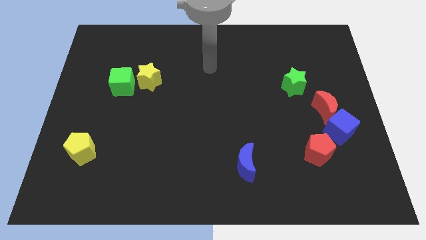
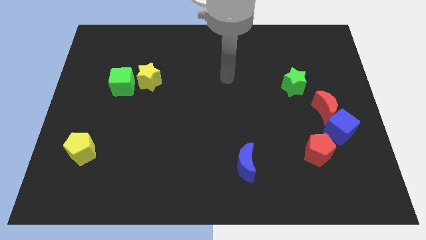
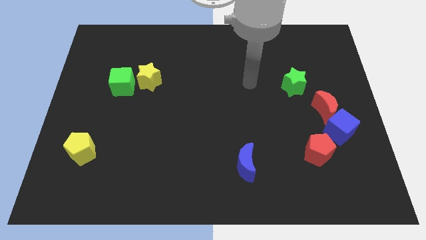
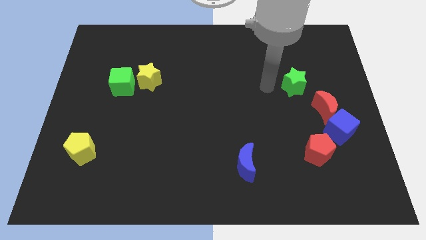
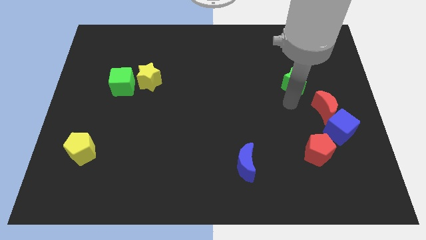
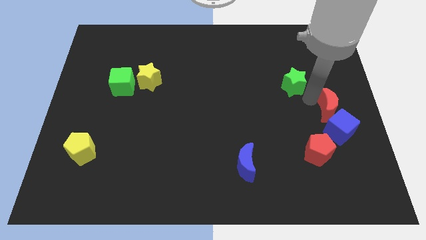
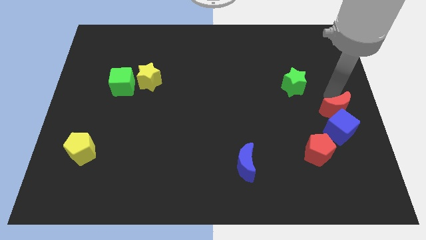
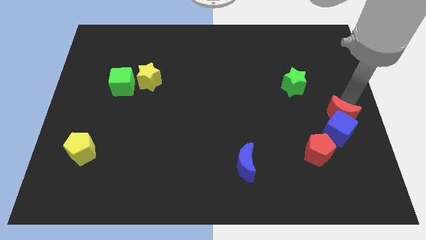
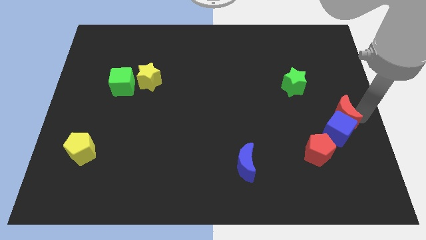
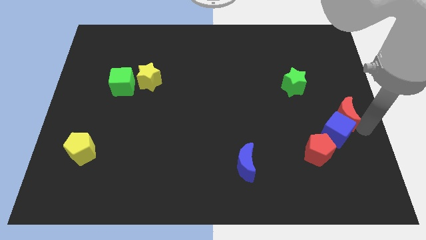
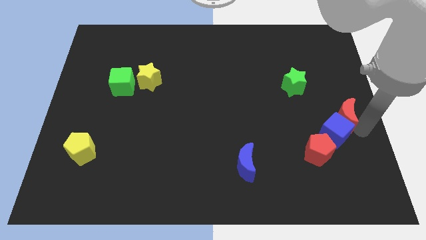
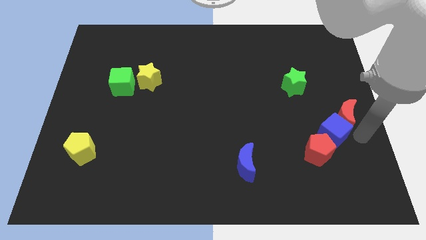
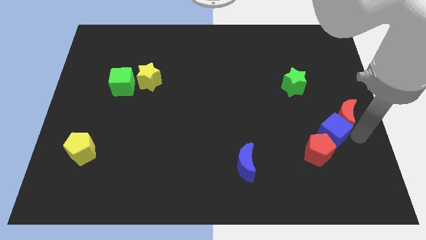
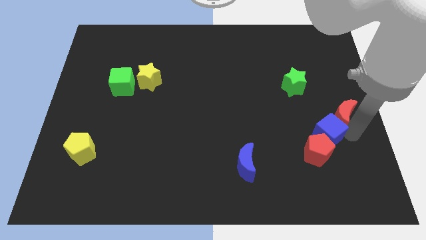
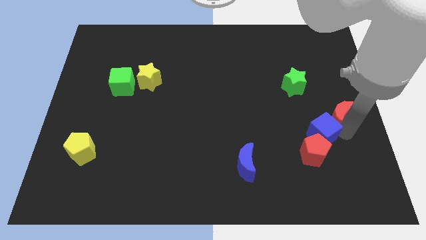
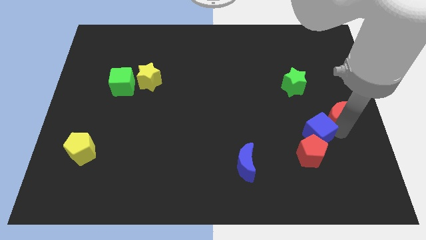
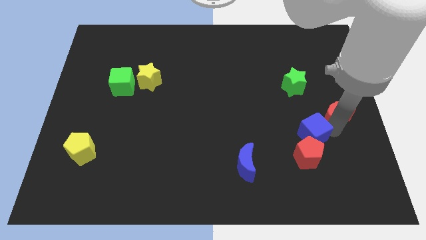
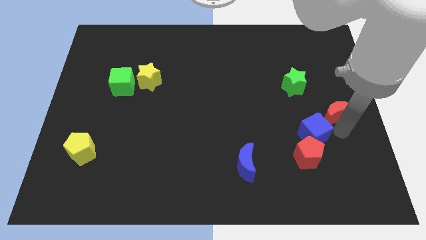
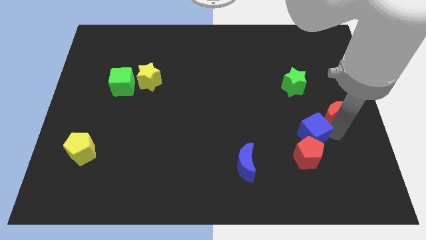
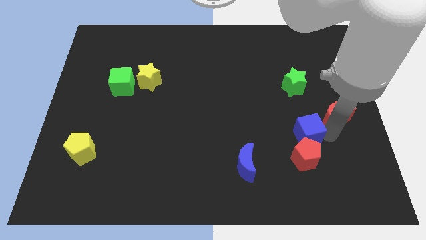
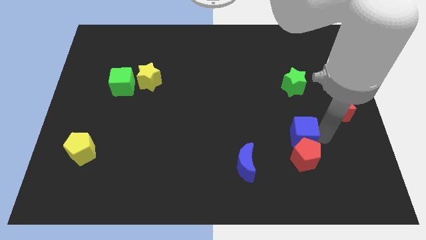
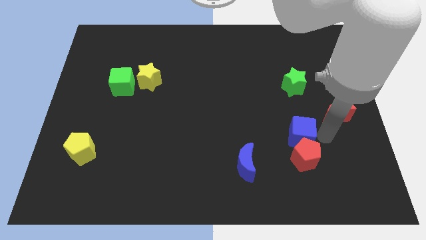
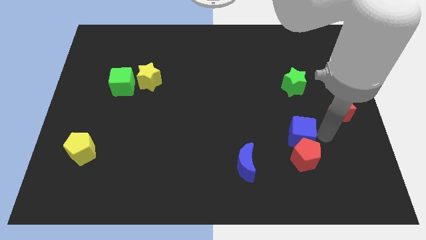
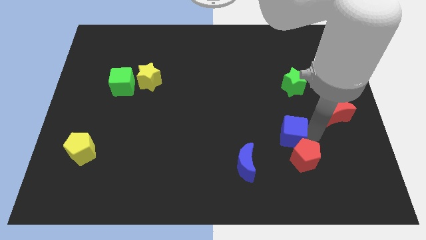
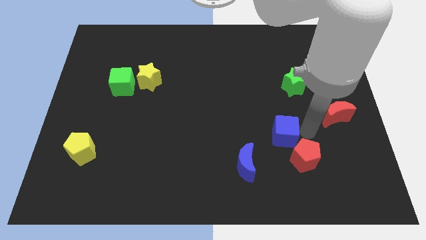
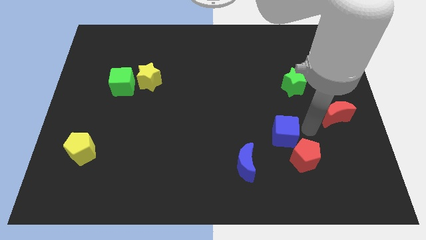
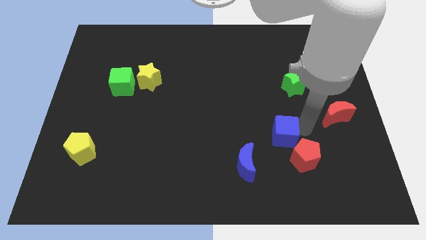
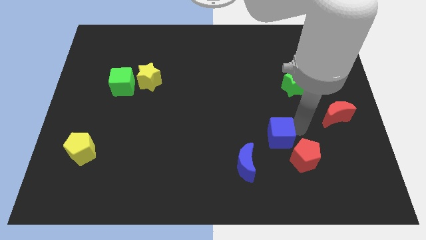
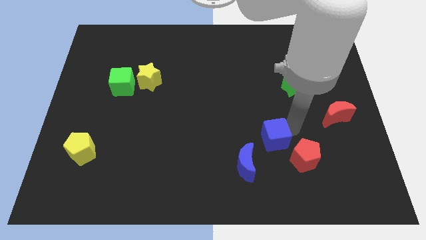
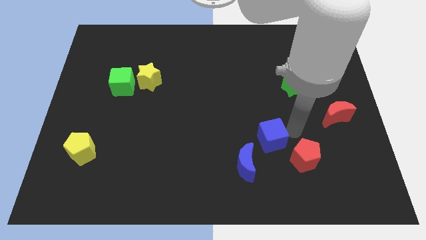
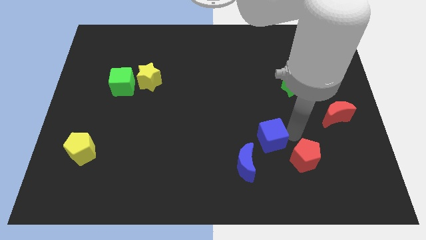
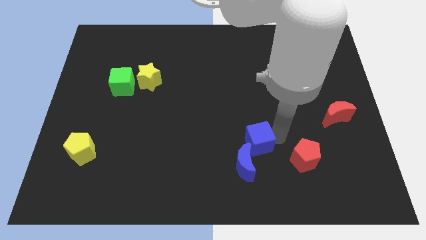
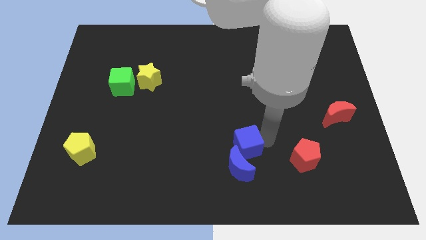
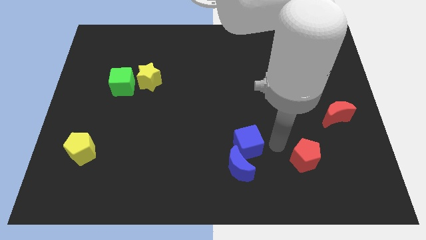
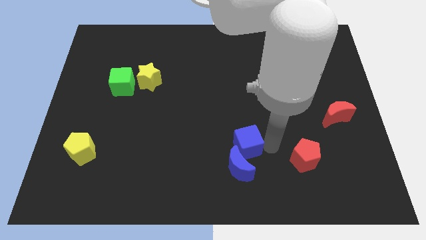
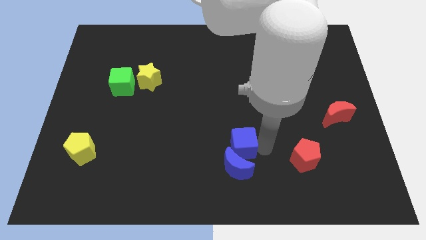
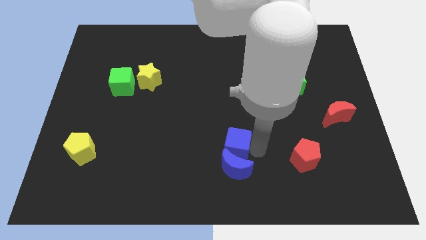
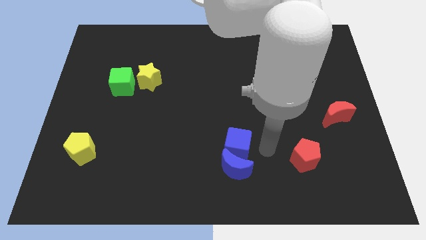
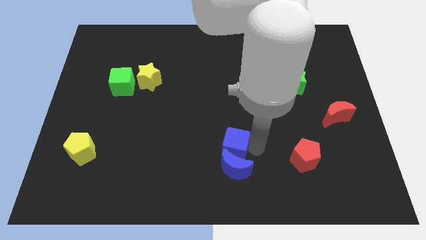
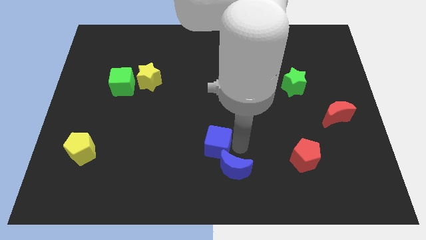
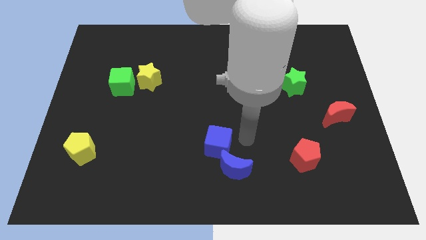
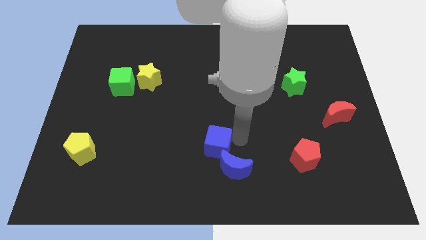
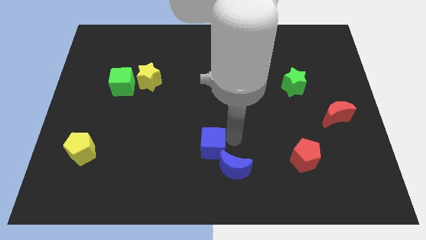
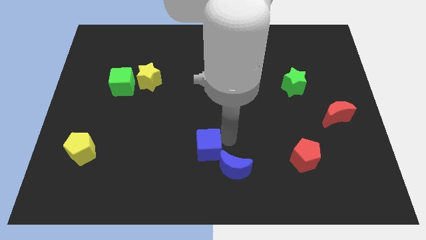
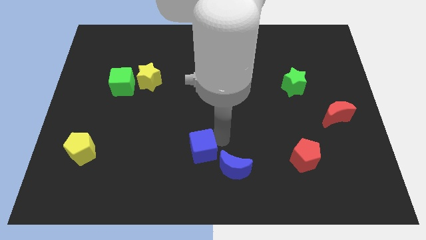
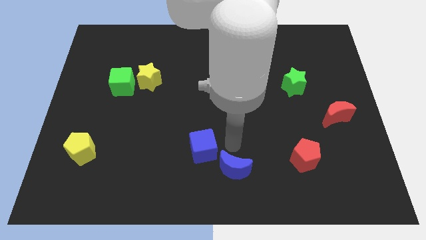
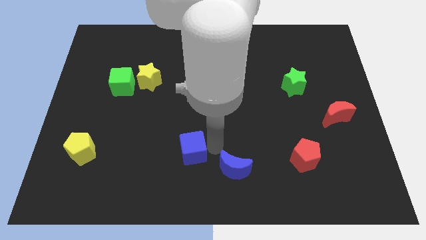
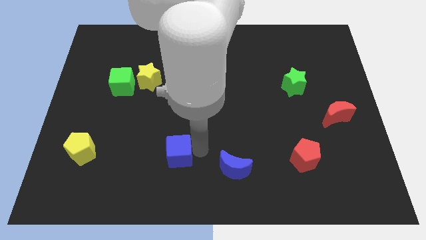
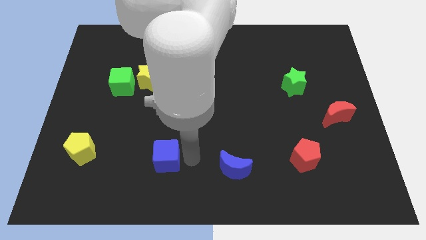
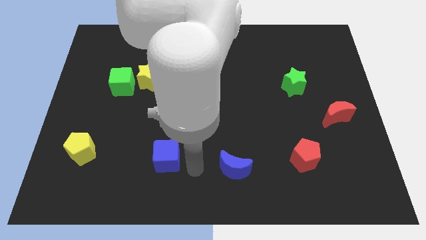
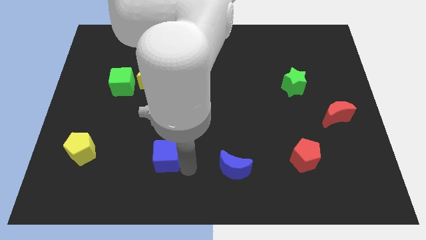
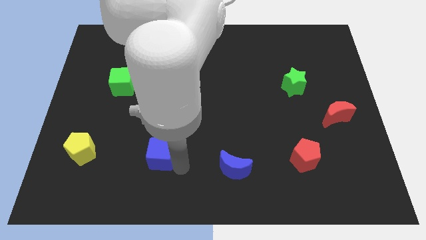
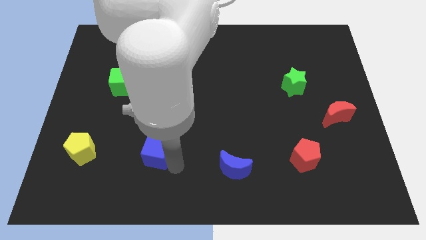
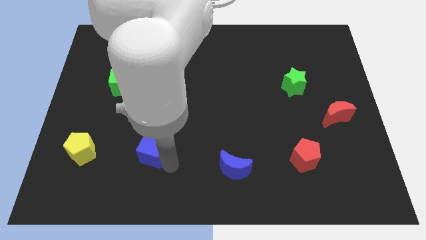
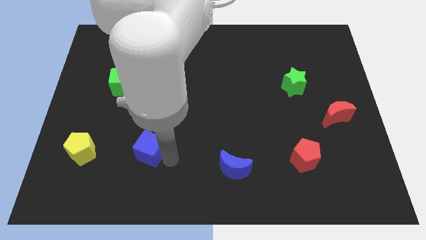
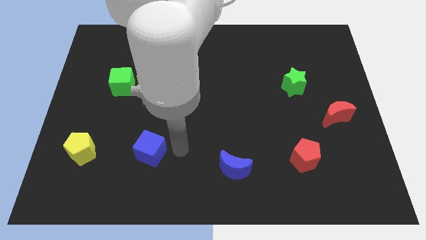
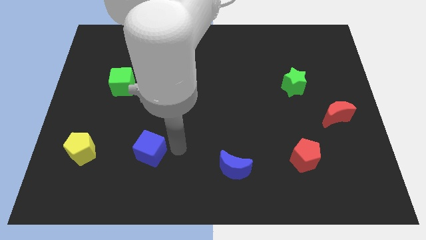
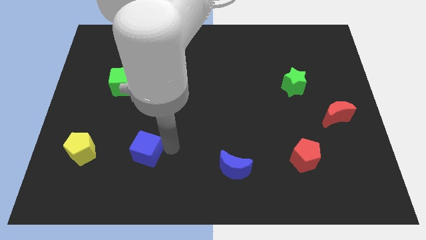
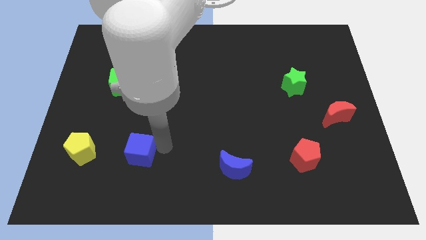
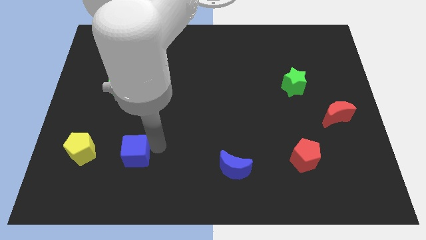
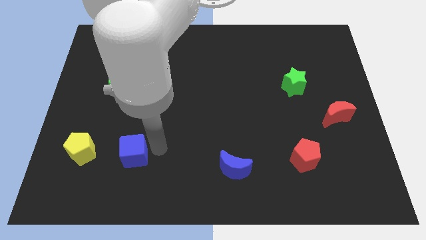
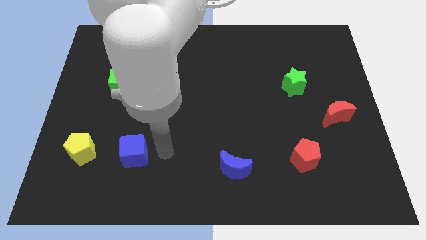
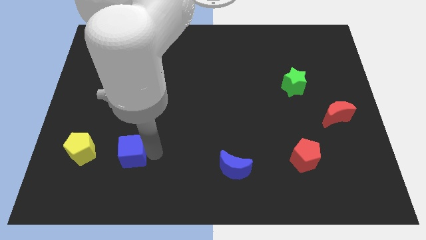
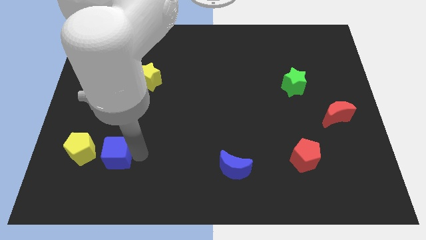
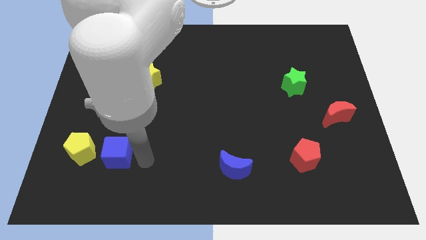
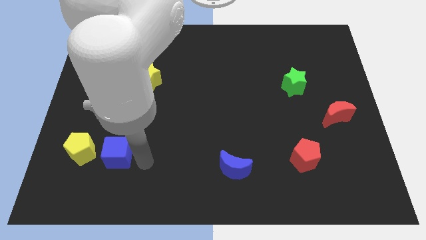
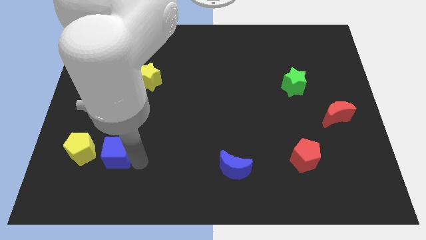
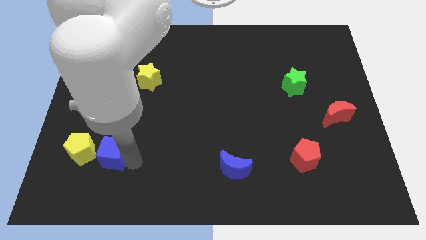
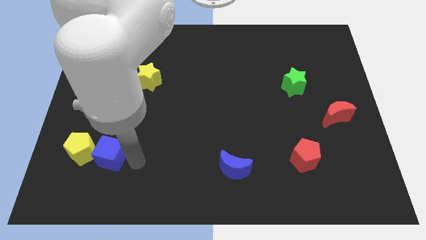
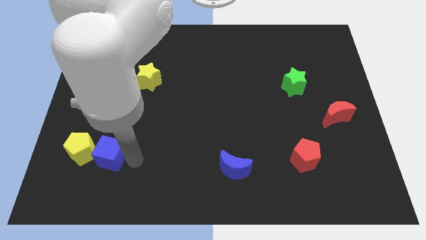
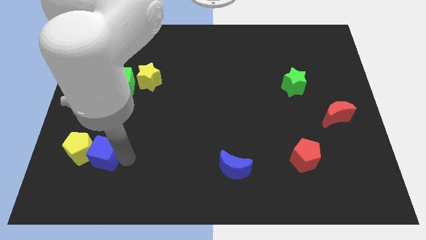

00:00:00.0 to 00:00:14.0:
move the blue cube to the yellow pentagon

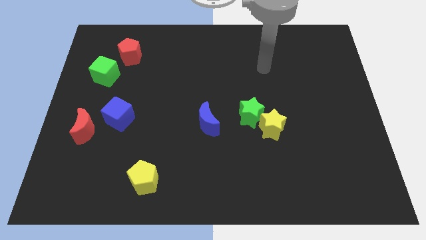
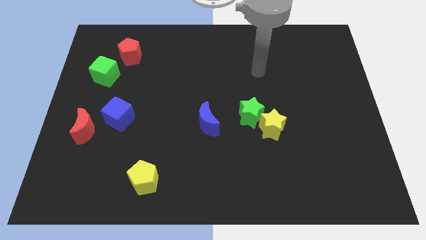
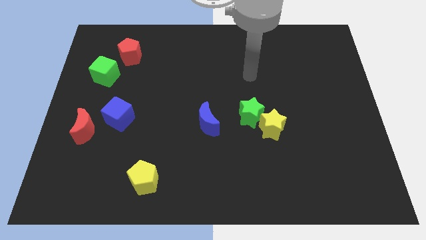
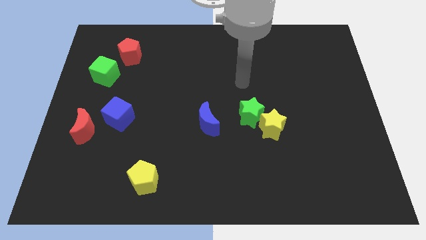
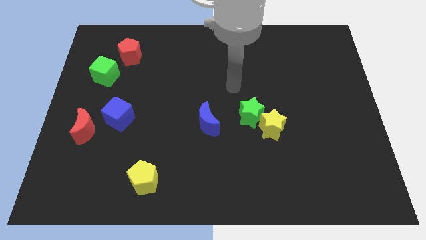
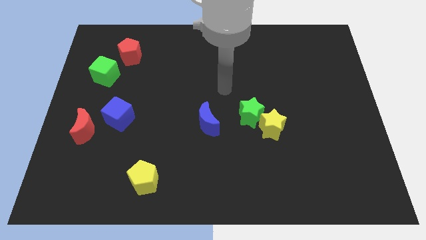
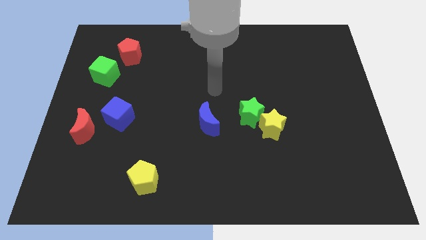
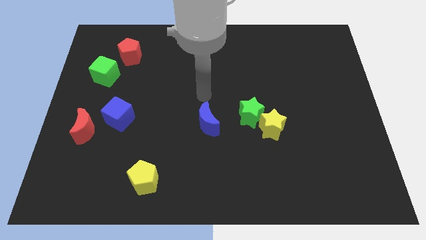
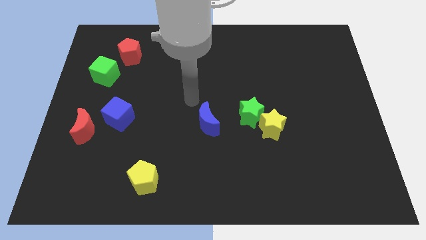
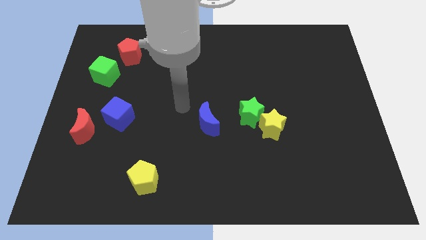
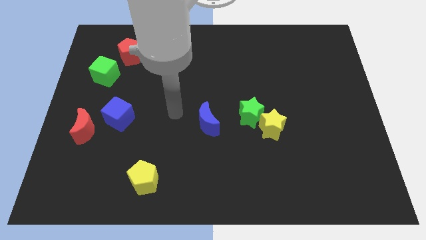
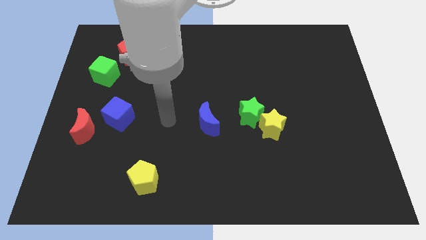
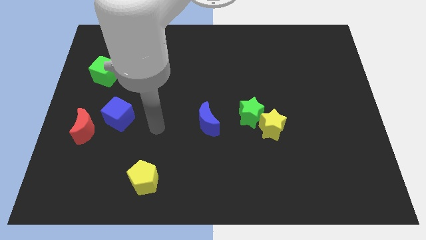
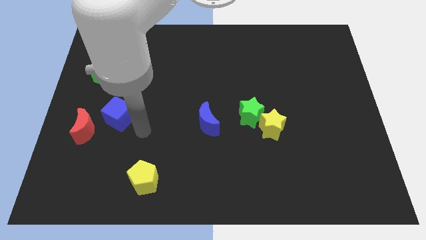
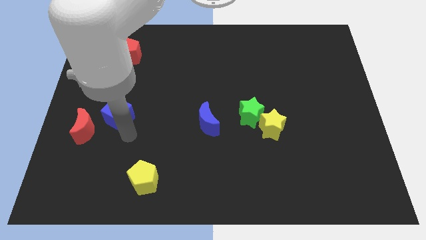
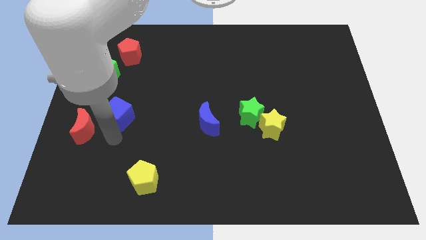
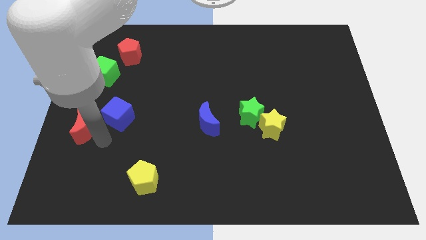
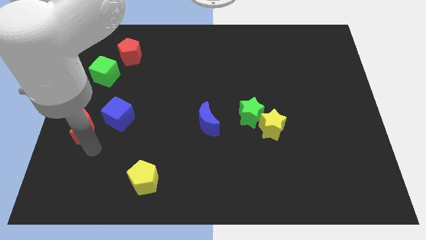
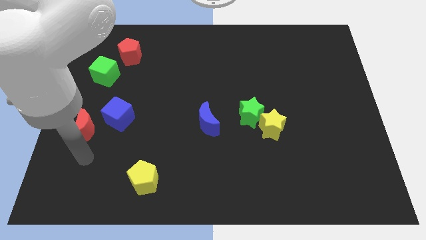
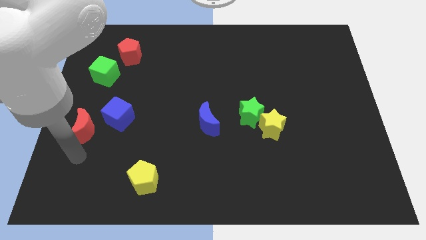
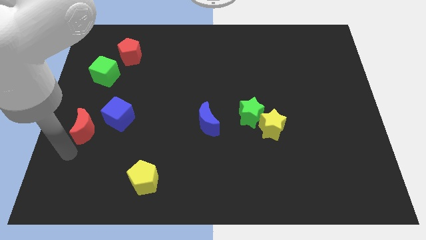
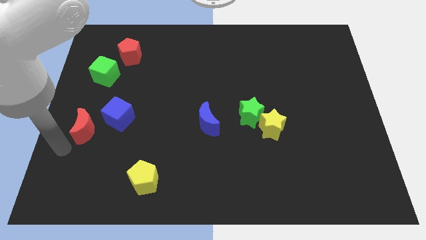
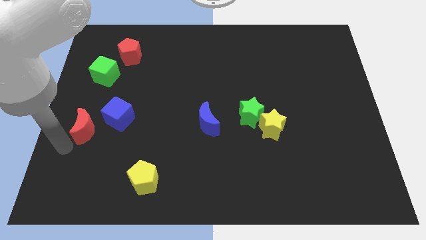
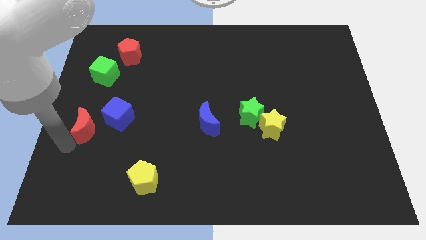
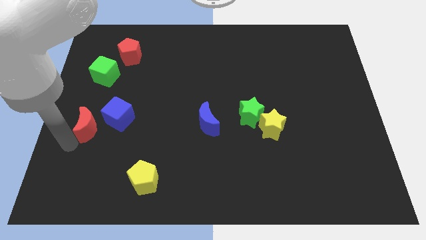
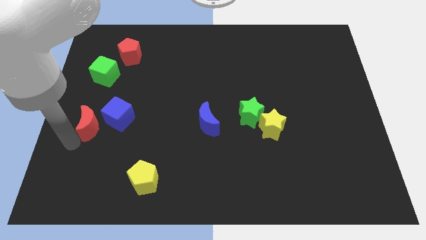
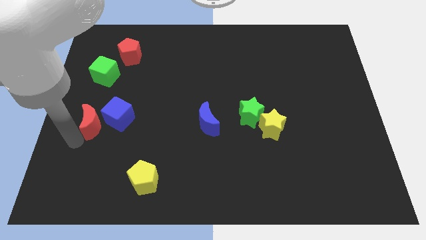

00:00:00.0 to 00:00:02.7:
move the red moon next to the blue cube
